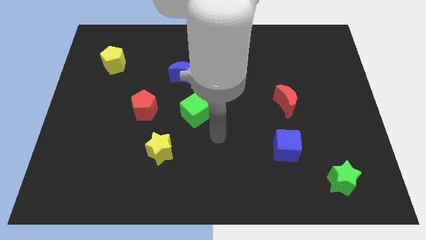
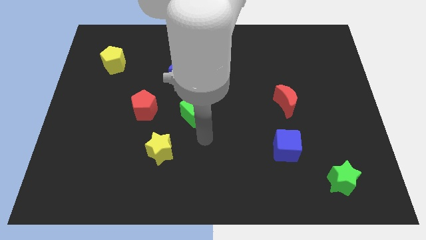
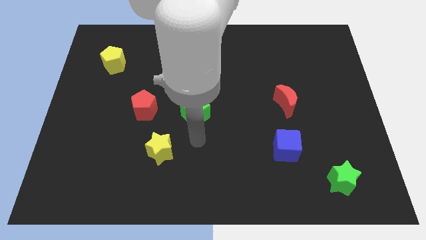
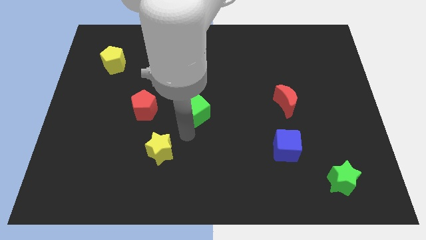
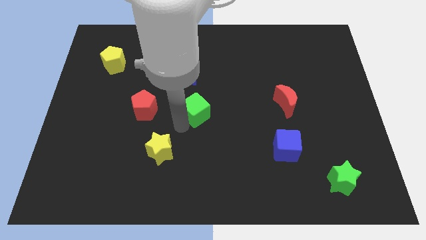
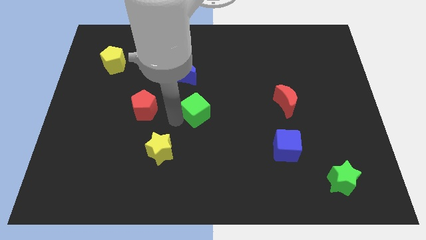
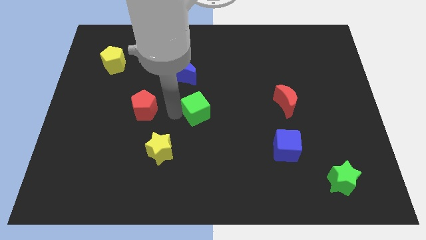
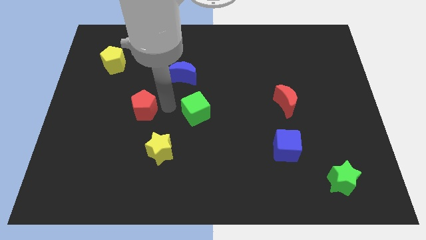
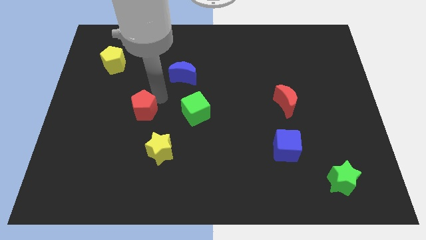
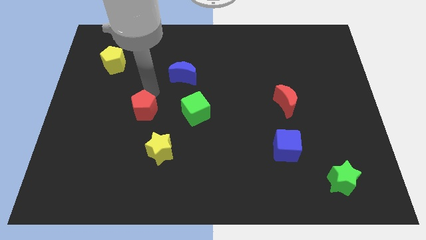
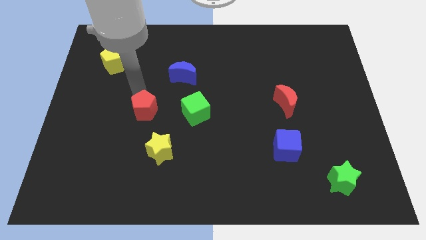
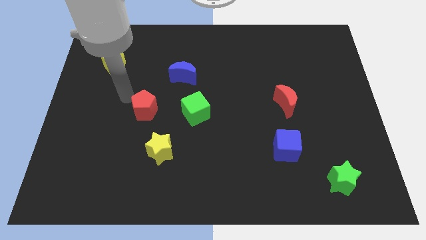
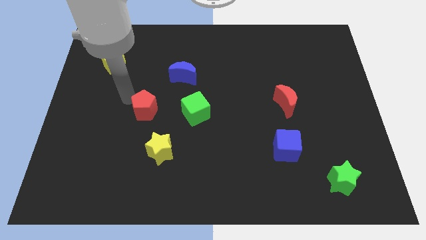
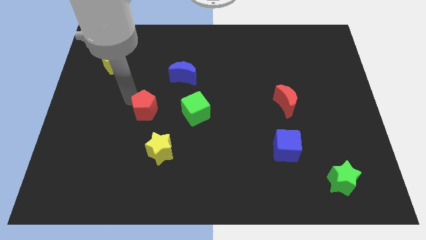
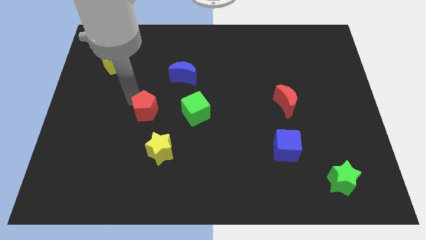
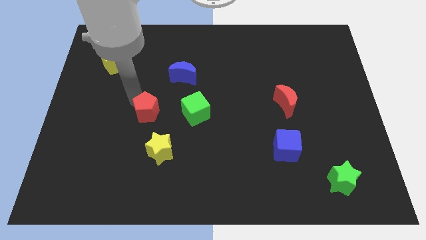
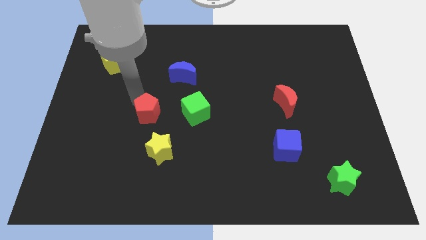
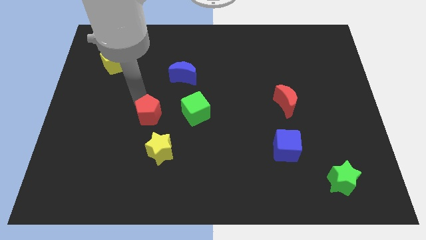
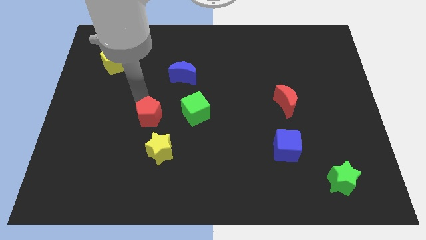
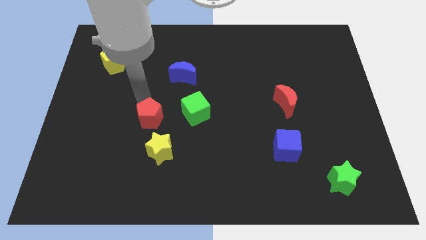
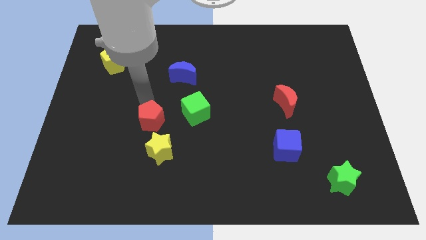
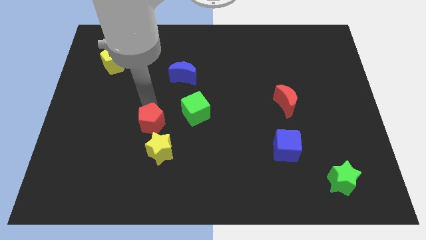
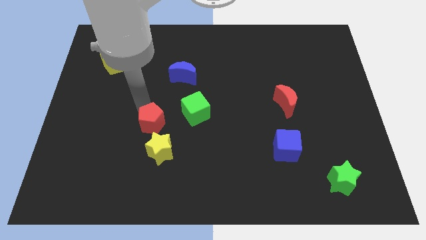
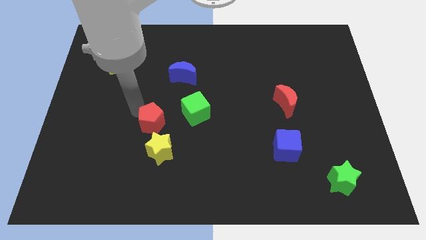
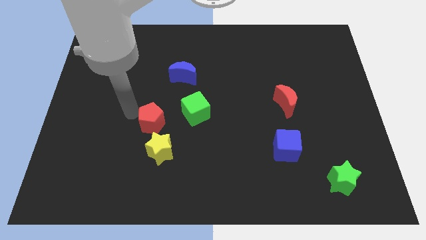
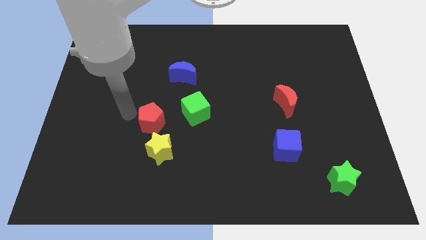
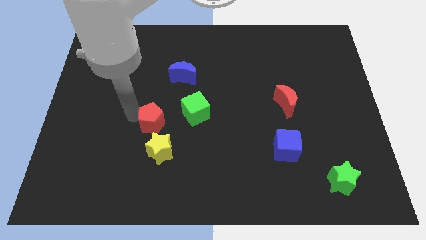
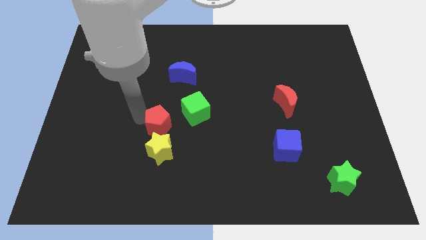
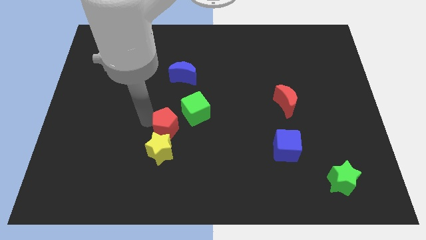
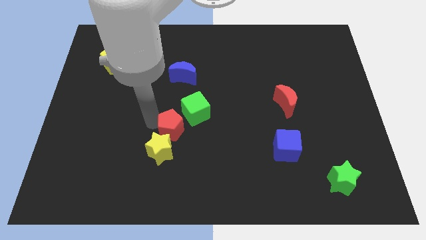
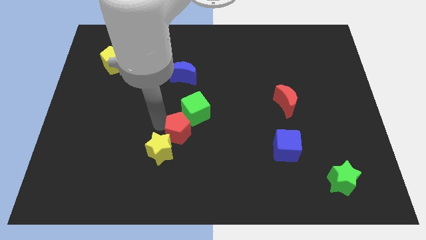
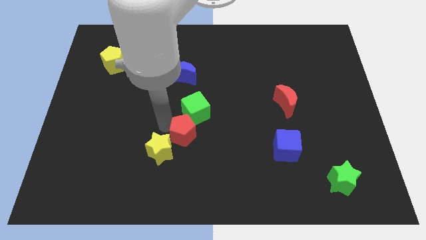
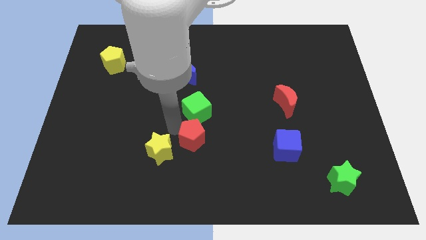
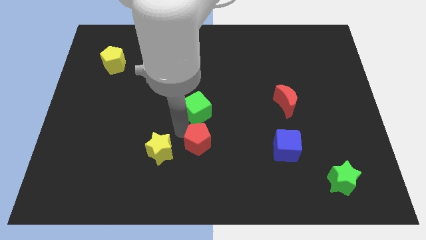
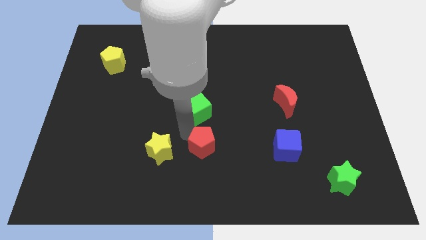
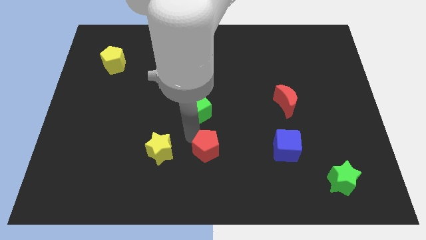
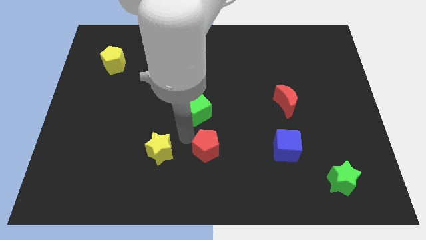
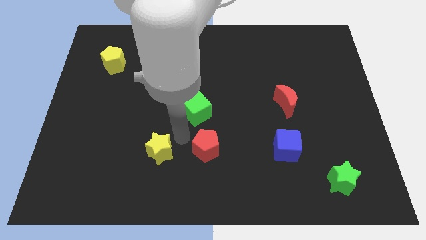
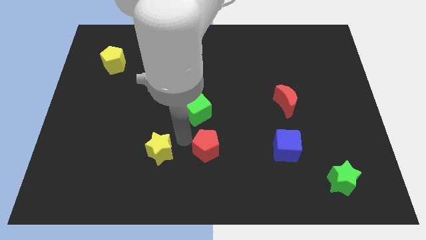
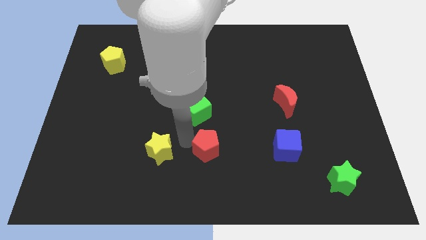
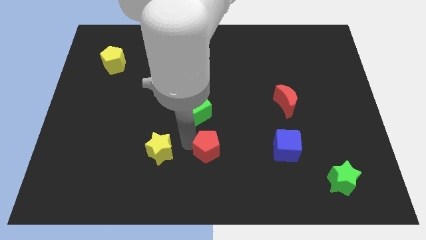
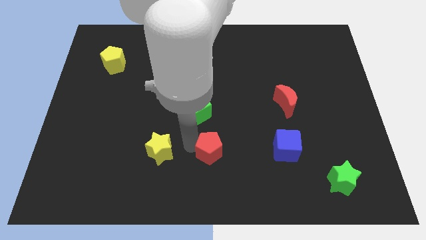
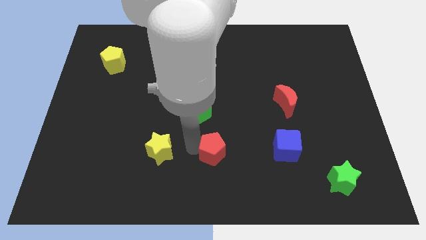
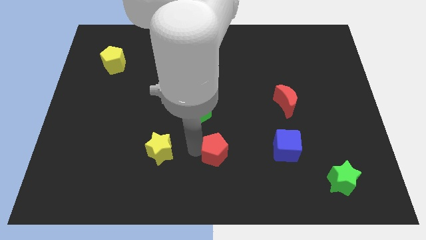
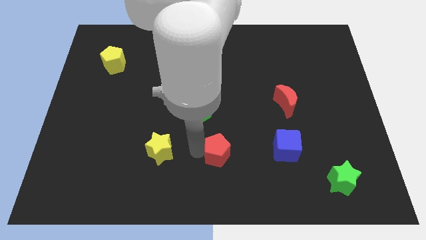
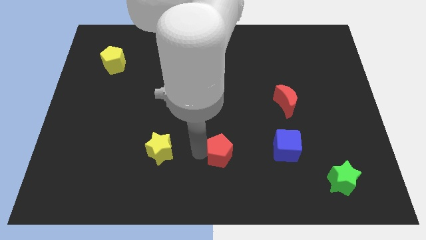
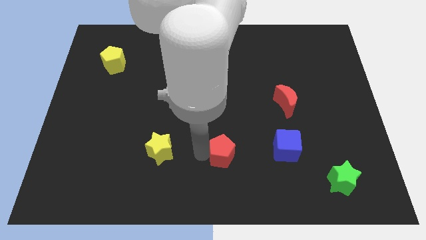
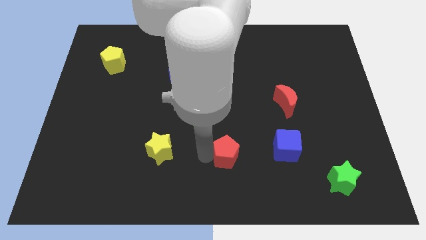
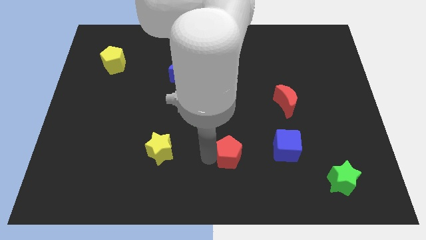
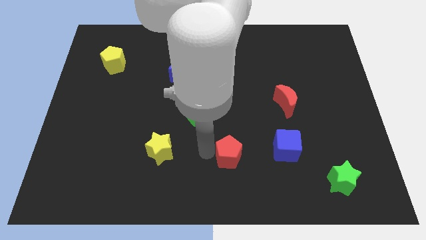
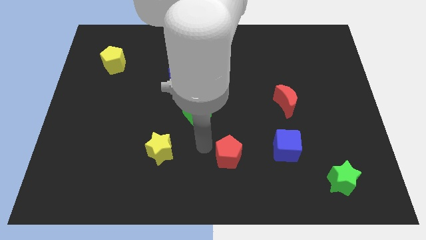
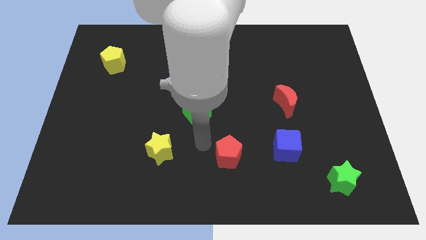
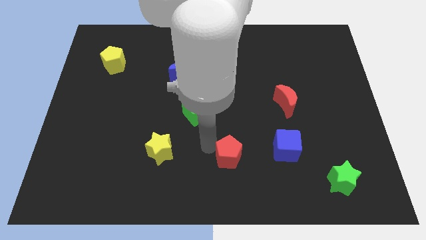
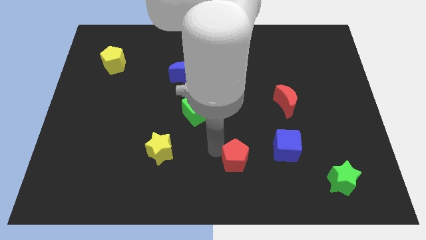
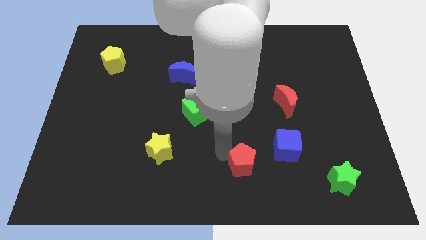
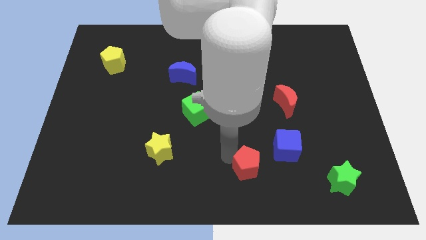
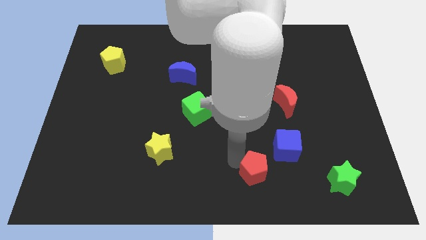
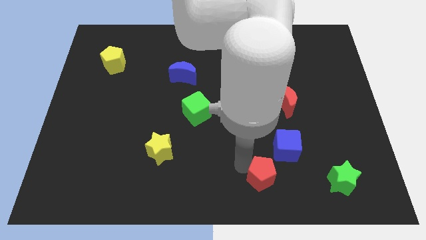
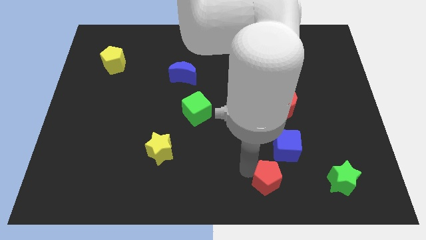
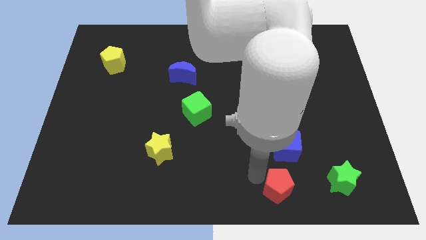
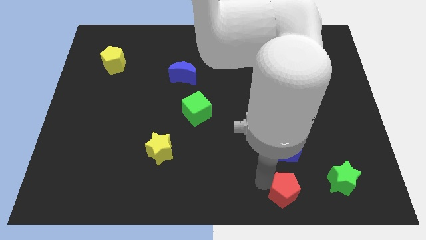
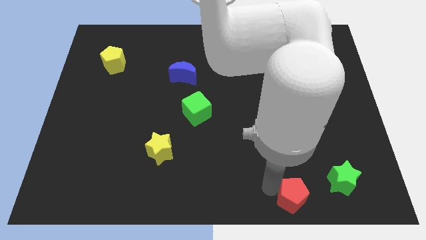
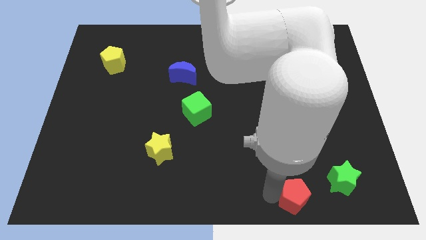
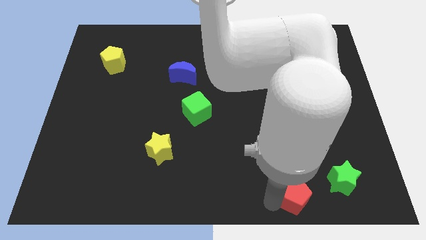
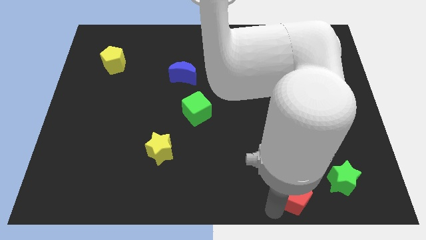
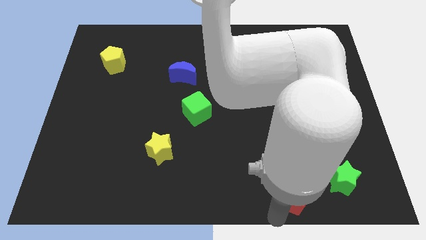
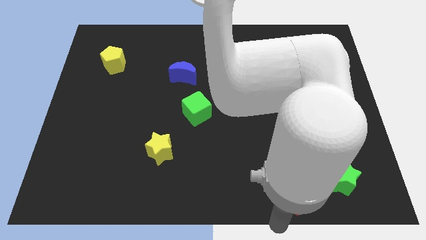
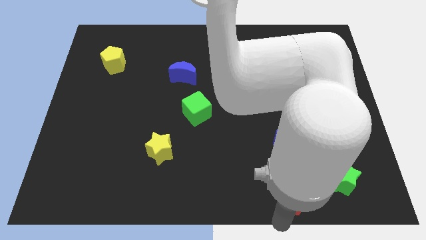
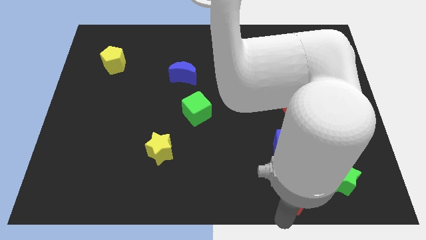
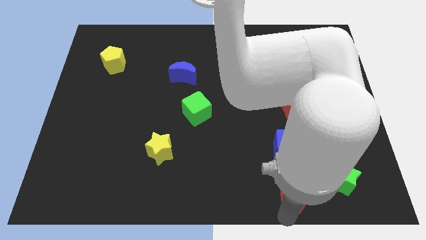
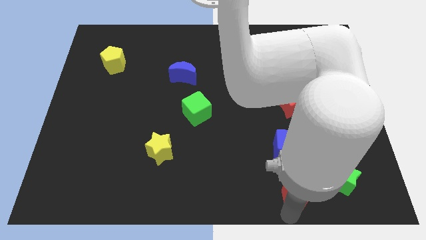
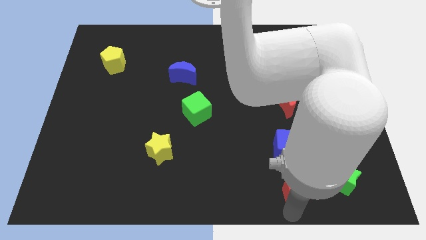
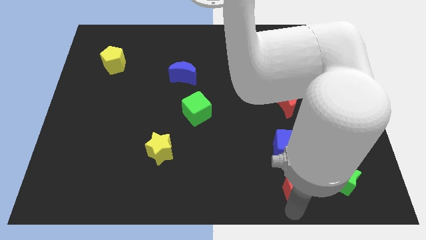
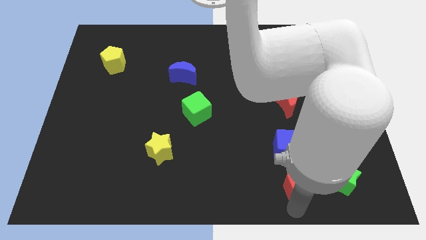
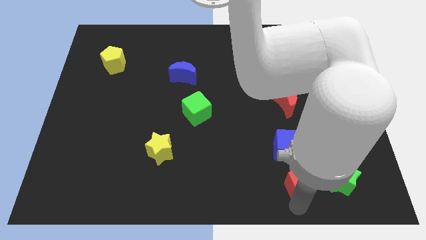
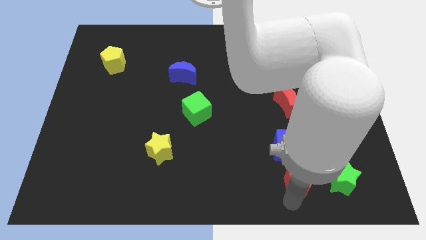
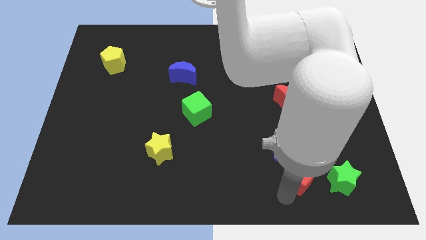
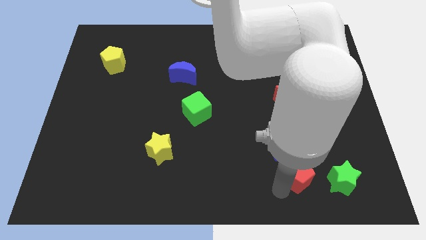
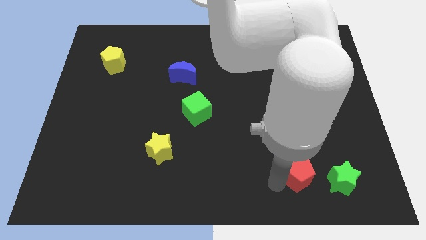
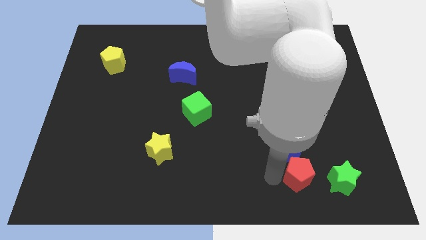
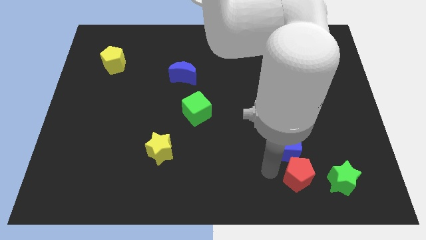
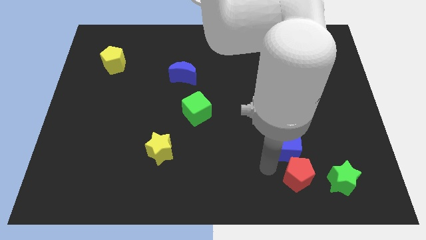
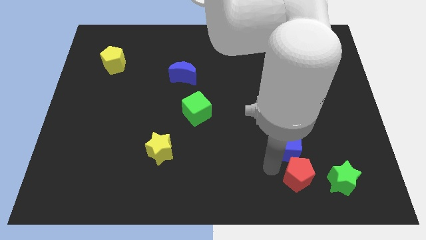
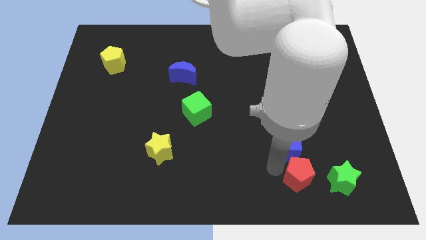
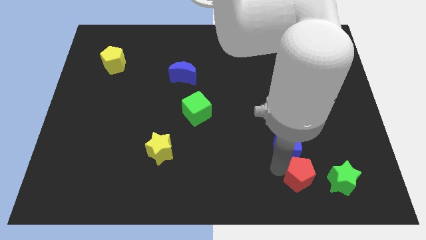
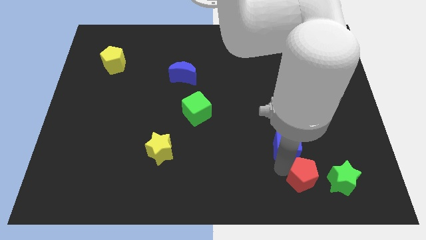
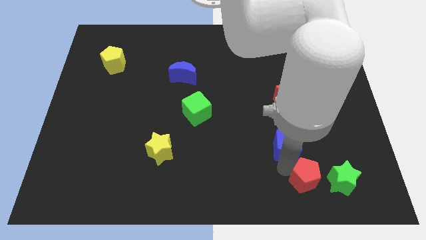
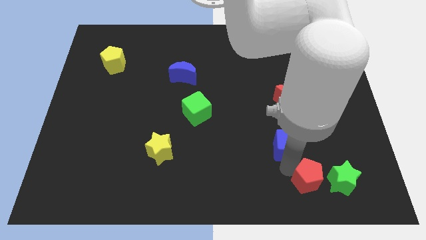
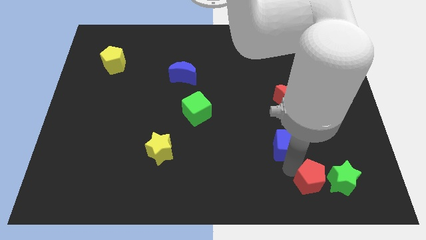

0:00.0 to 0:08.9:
move the red pentagon next to the green star
